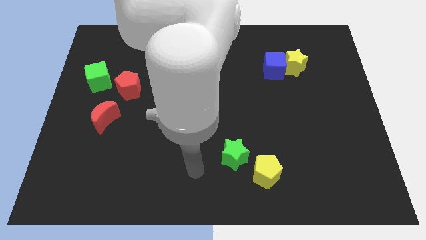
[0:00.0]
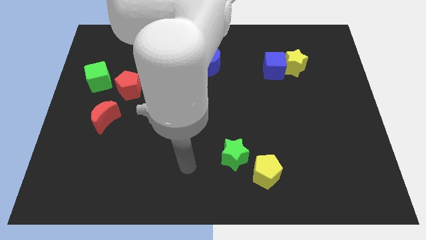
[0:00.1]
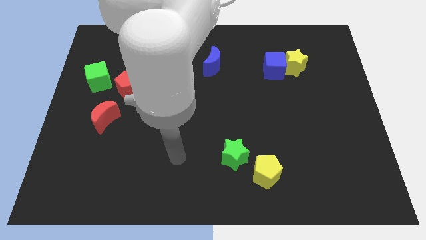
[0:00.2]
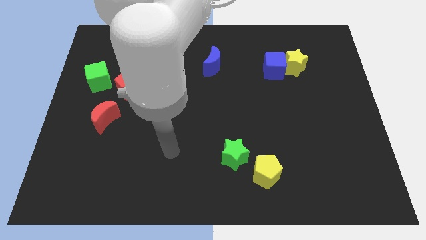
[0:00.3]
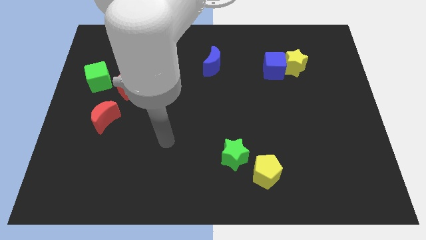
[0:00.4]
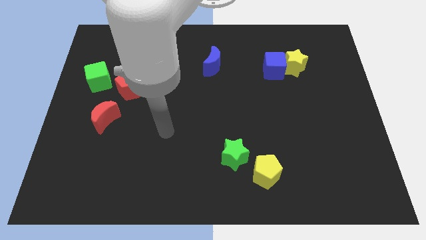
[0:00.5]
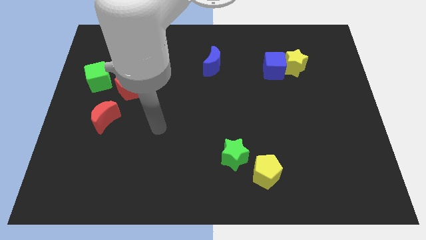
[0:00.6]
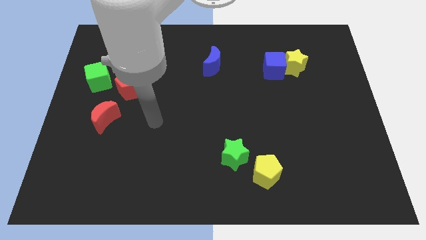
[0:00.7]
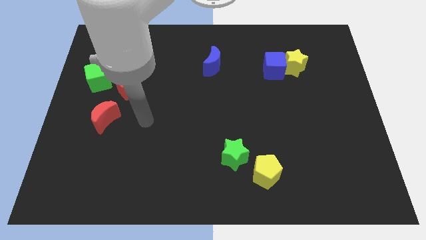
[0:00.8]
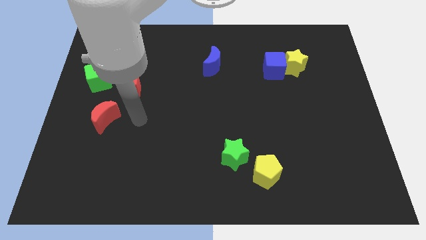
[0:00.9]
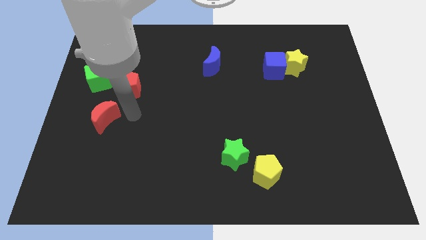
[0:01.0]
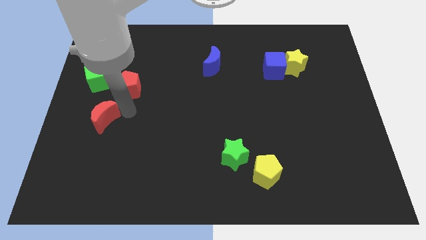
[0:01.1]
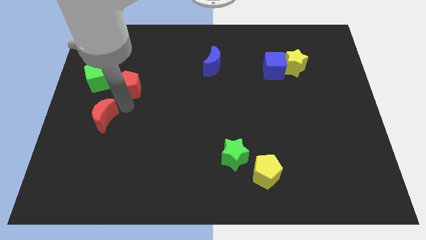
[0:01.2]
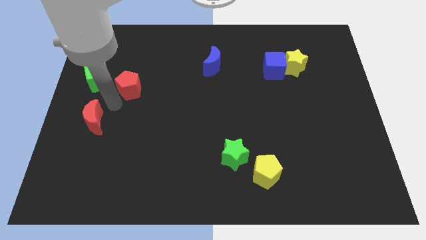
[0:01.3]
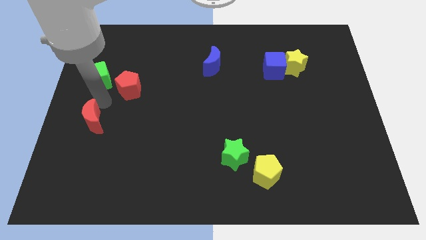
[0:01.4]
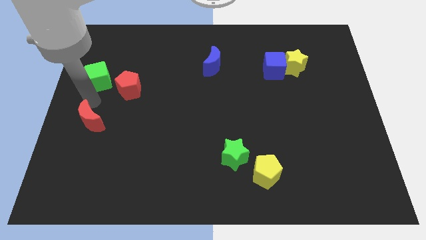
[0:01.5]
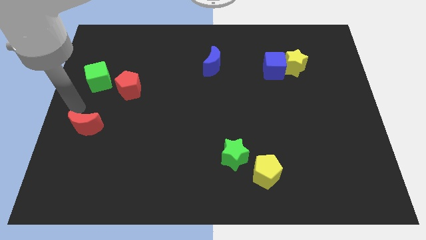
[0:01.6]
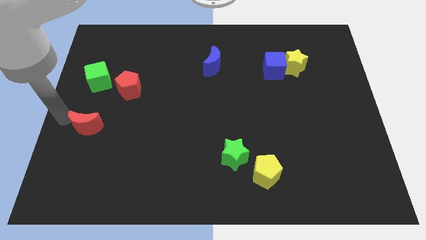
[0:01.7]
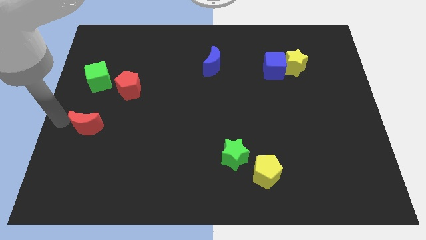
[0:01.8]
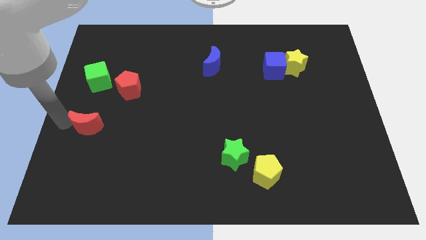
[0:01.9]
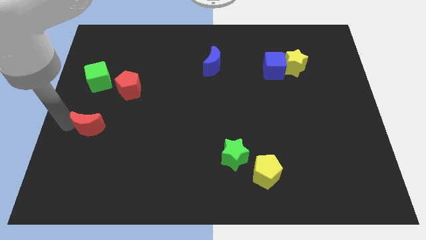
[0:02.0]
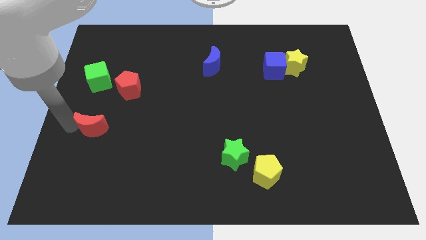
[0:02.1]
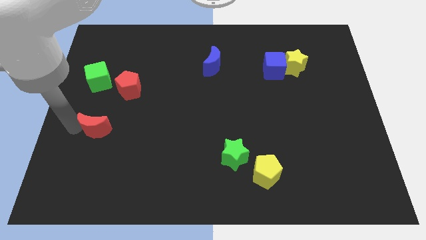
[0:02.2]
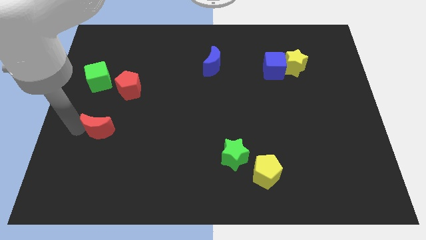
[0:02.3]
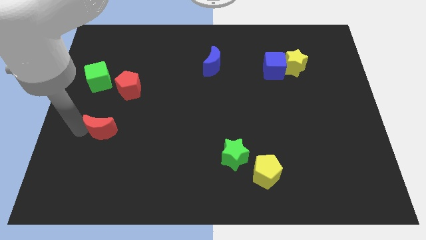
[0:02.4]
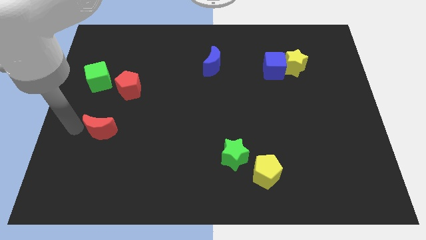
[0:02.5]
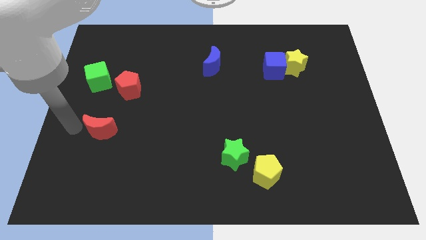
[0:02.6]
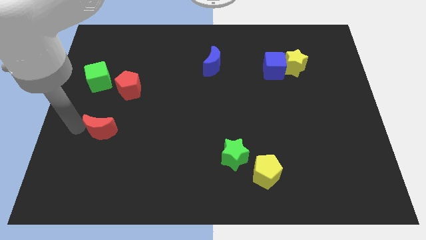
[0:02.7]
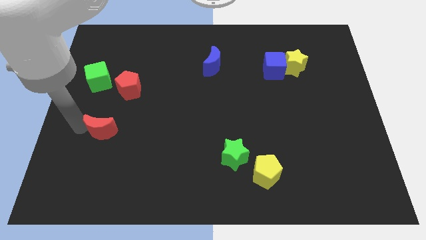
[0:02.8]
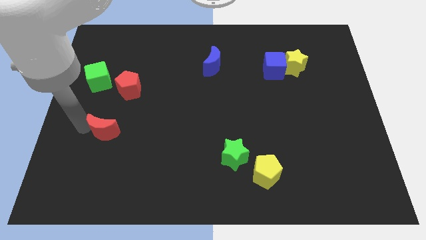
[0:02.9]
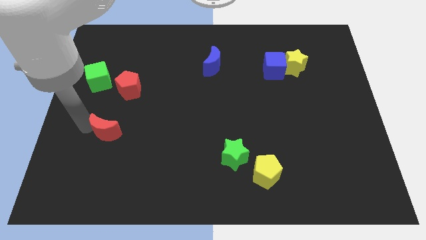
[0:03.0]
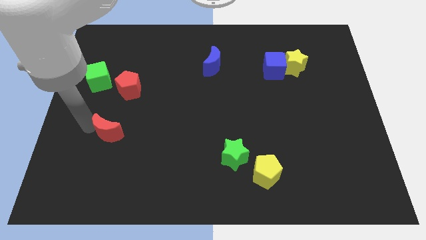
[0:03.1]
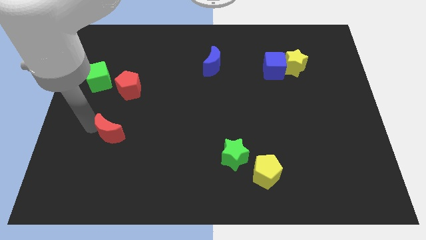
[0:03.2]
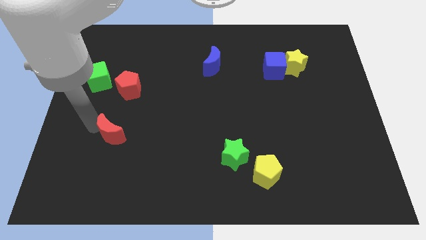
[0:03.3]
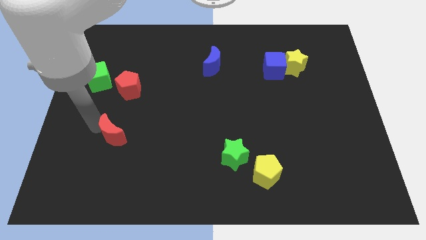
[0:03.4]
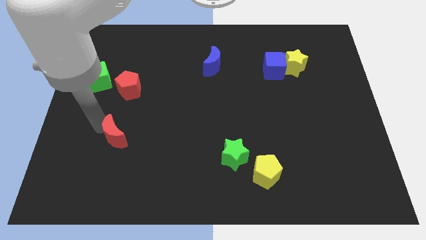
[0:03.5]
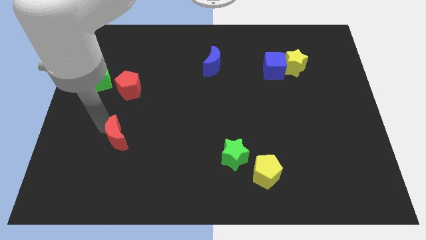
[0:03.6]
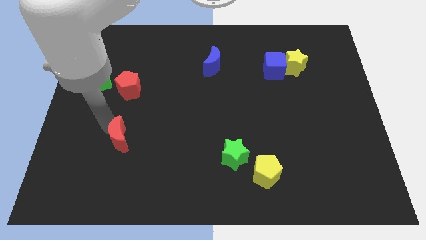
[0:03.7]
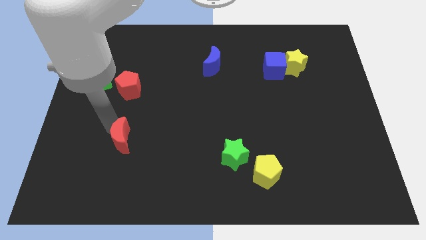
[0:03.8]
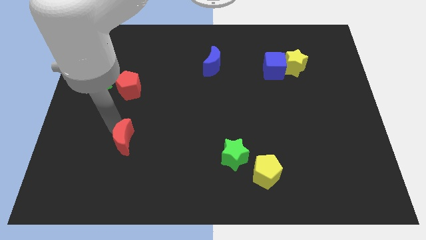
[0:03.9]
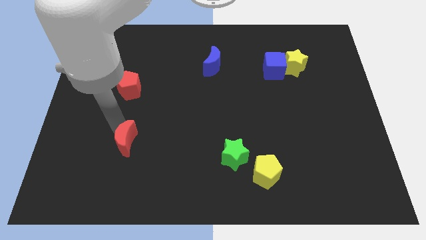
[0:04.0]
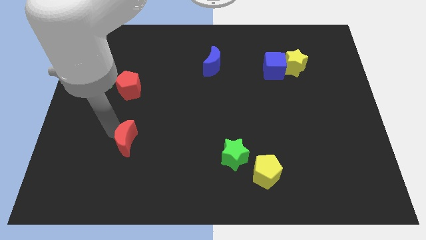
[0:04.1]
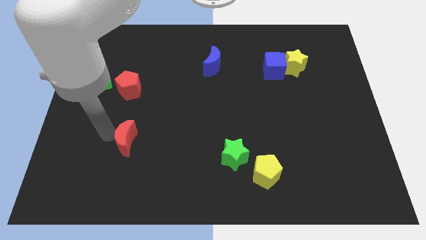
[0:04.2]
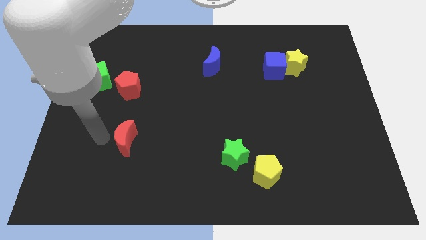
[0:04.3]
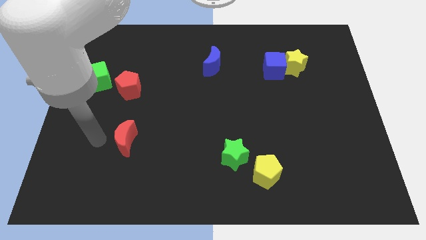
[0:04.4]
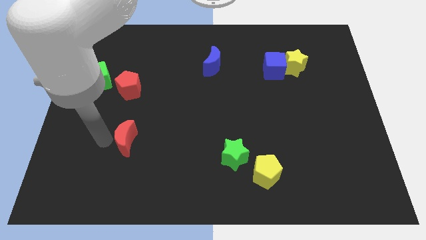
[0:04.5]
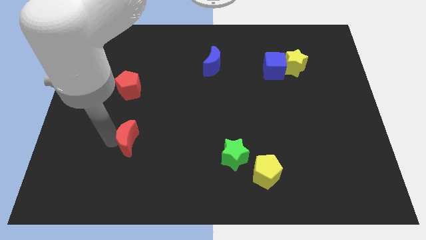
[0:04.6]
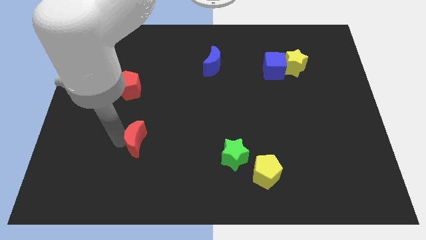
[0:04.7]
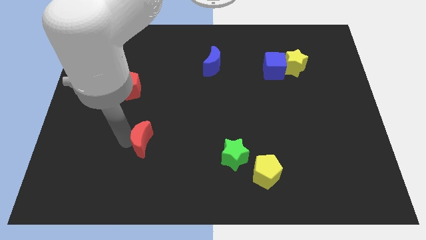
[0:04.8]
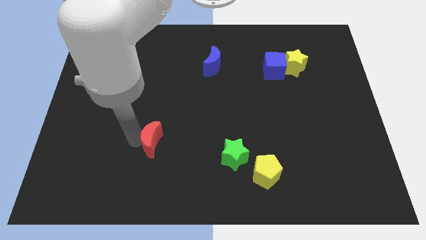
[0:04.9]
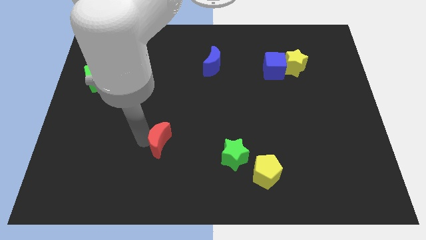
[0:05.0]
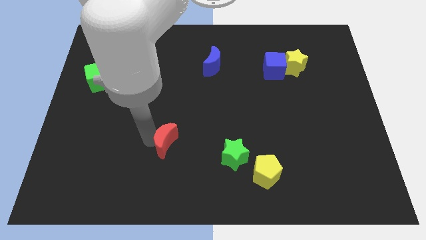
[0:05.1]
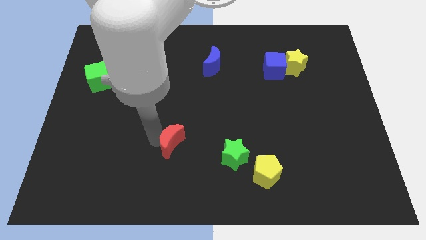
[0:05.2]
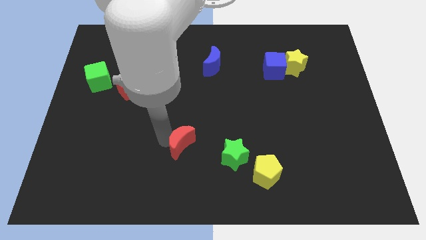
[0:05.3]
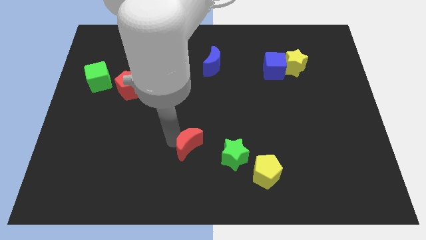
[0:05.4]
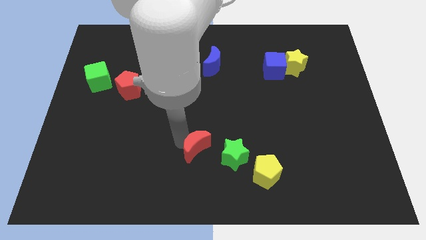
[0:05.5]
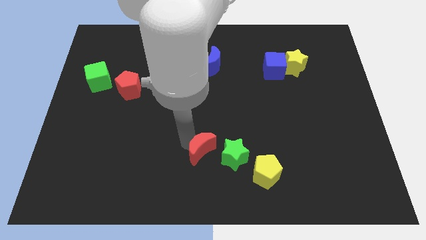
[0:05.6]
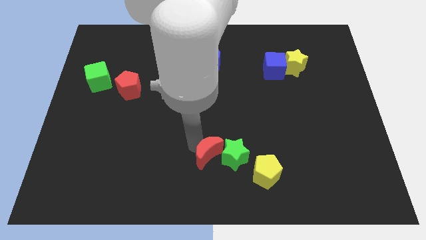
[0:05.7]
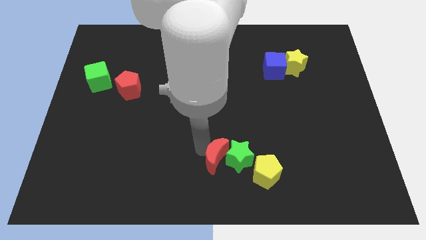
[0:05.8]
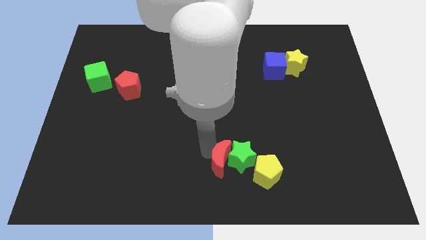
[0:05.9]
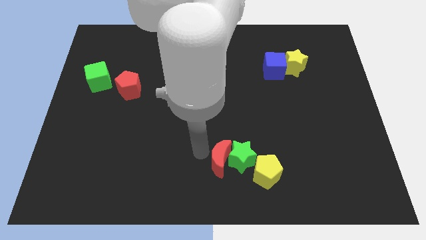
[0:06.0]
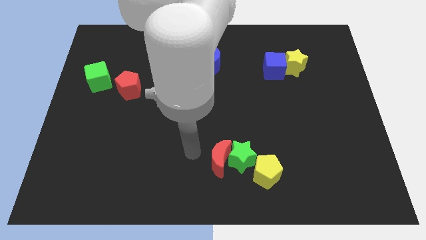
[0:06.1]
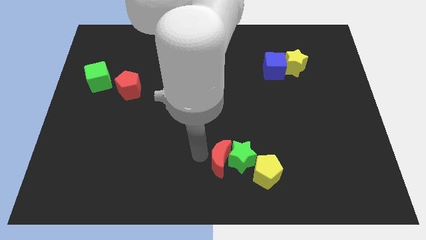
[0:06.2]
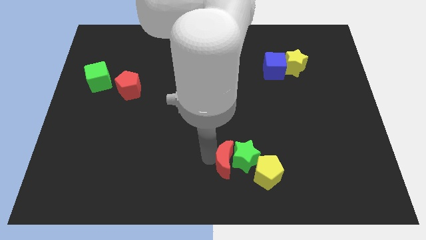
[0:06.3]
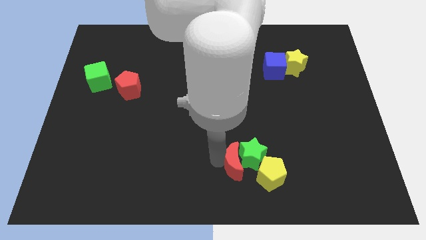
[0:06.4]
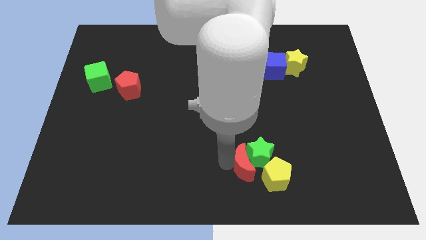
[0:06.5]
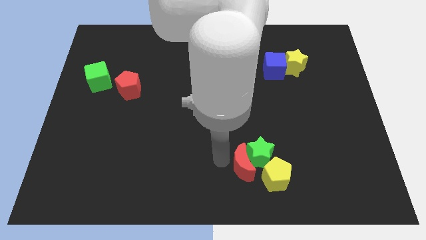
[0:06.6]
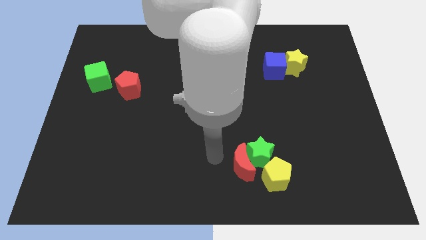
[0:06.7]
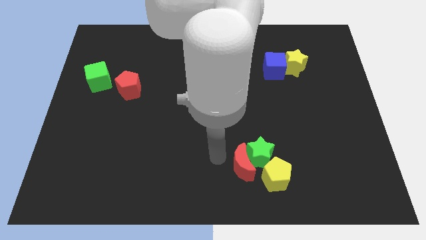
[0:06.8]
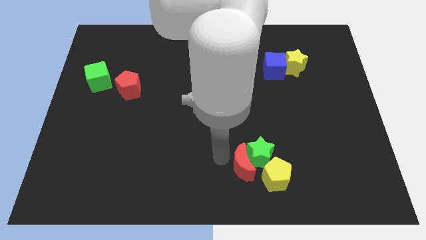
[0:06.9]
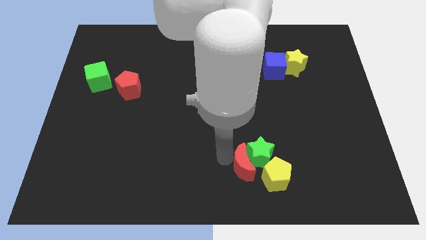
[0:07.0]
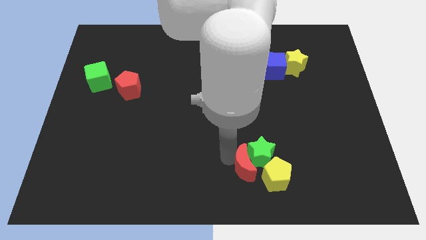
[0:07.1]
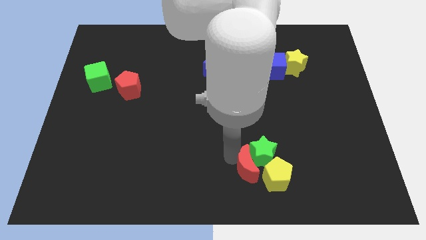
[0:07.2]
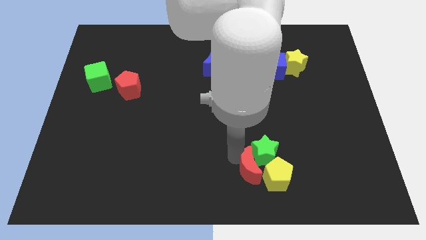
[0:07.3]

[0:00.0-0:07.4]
push the red moon next to the yellow pentagon
